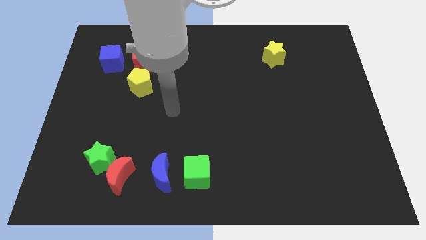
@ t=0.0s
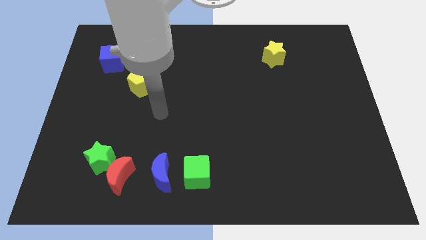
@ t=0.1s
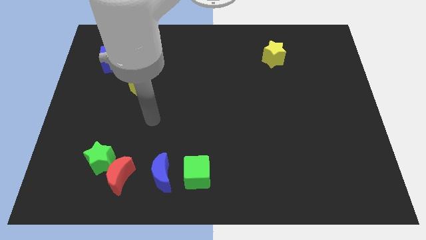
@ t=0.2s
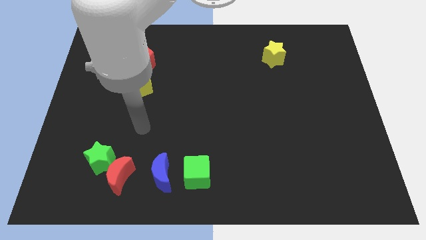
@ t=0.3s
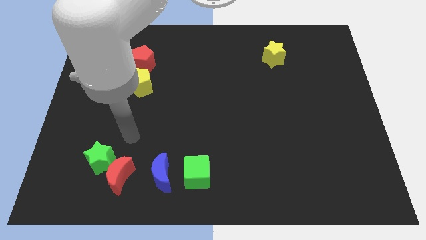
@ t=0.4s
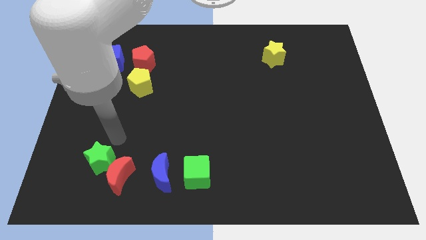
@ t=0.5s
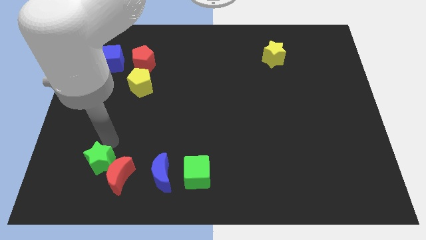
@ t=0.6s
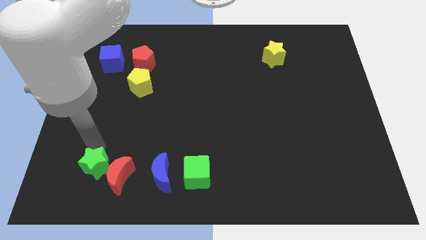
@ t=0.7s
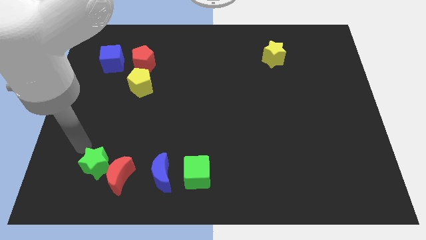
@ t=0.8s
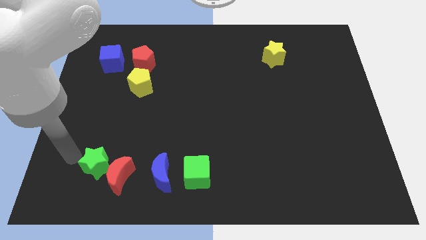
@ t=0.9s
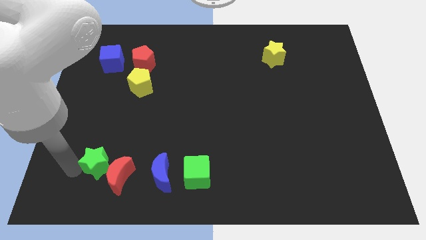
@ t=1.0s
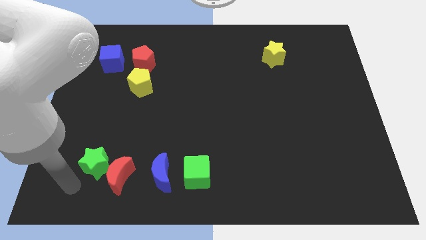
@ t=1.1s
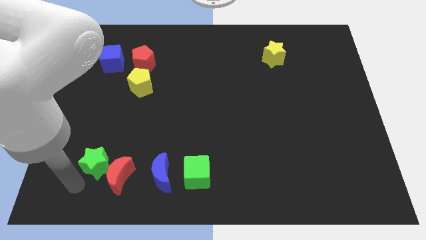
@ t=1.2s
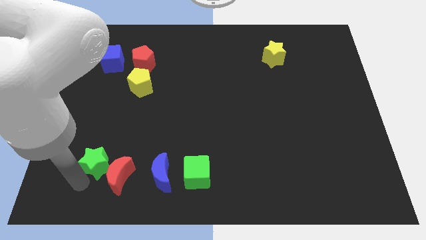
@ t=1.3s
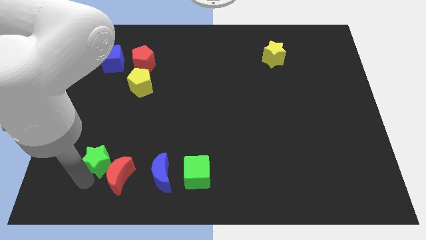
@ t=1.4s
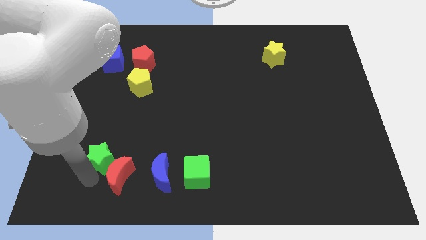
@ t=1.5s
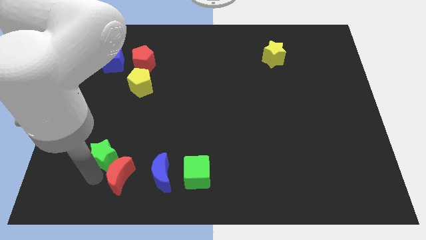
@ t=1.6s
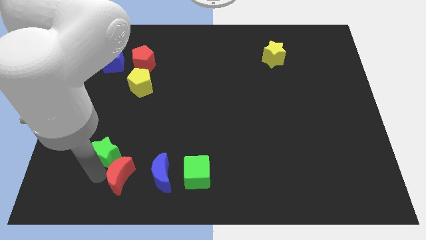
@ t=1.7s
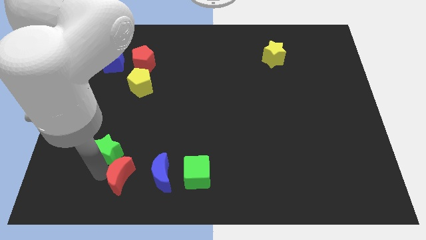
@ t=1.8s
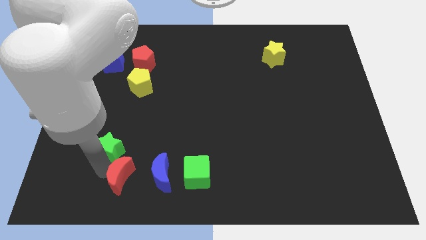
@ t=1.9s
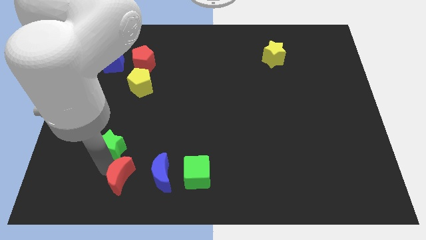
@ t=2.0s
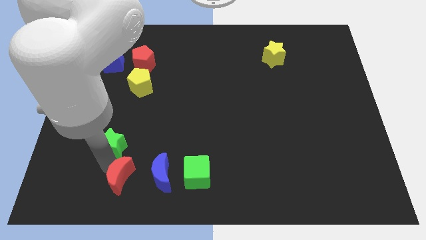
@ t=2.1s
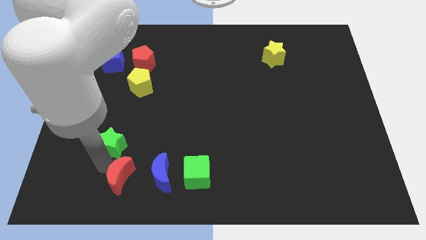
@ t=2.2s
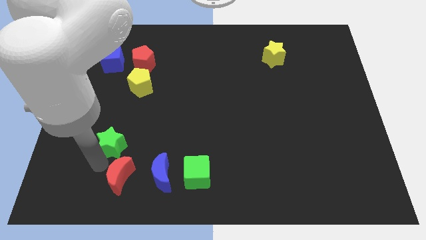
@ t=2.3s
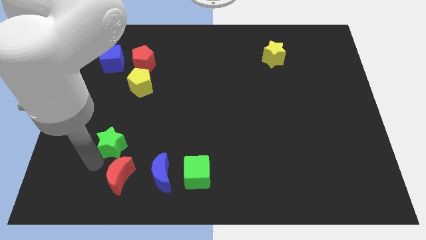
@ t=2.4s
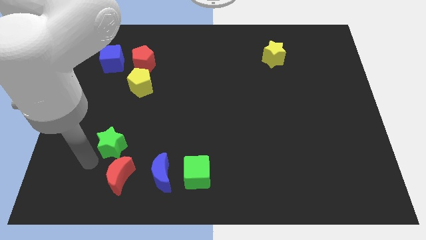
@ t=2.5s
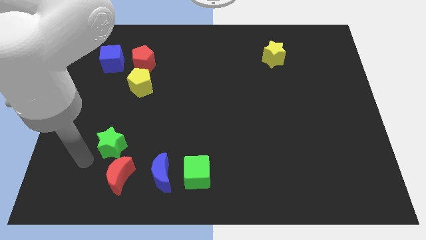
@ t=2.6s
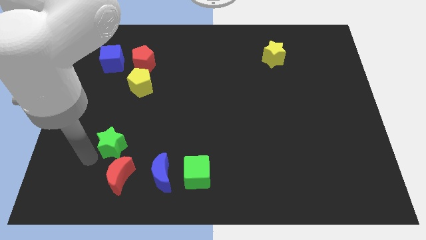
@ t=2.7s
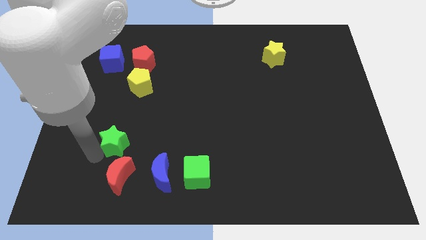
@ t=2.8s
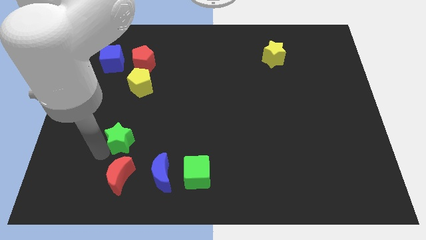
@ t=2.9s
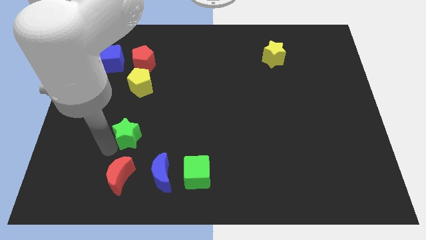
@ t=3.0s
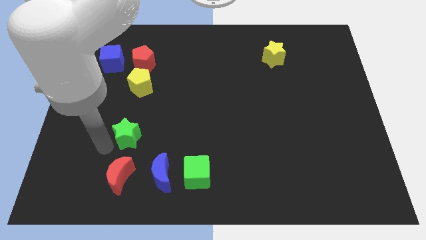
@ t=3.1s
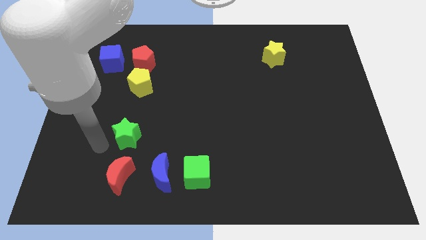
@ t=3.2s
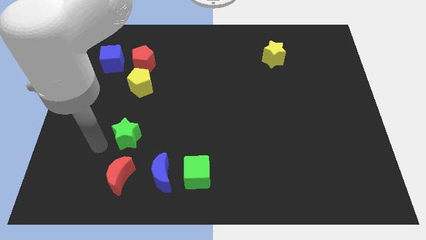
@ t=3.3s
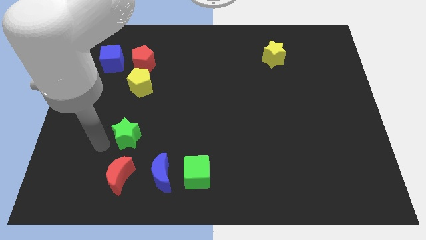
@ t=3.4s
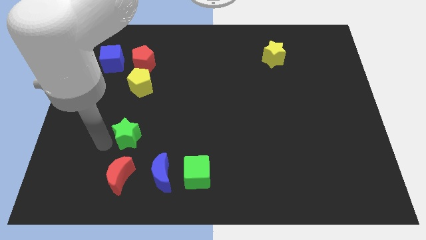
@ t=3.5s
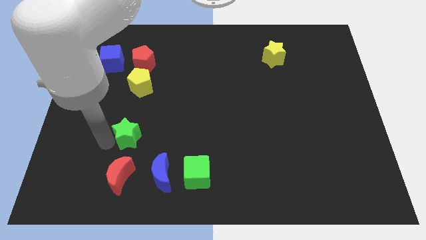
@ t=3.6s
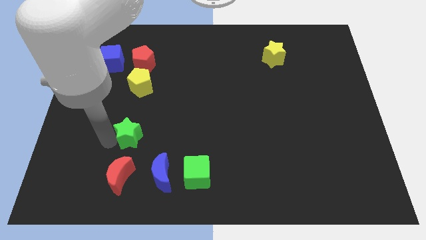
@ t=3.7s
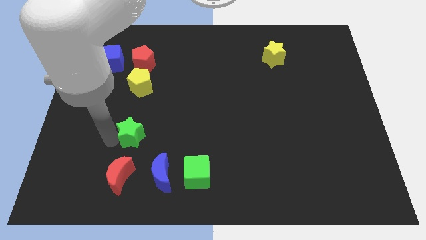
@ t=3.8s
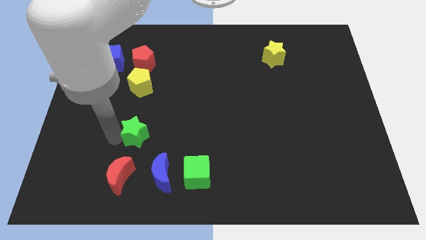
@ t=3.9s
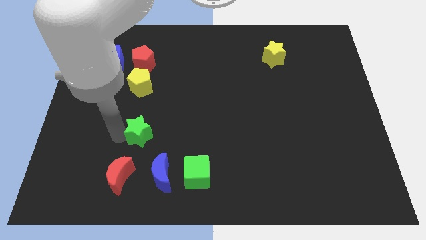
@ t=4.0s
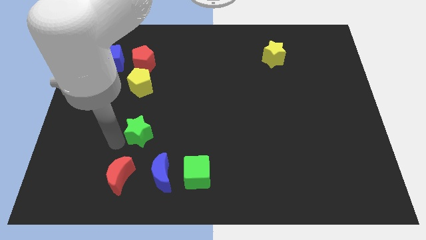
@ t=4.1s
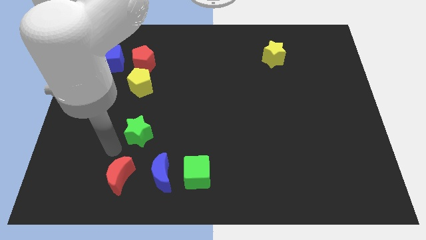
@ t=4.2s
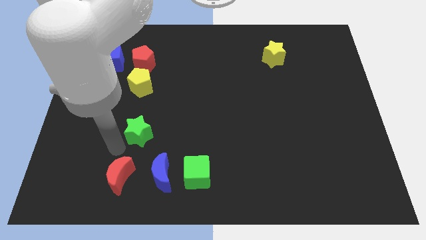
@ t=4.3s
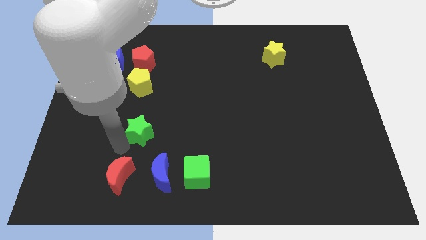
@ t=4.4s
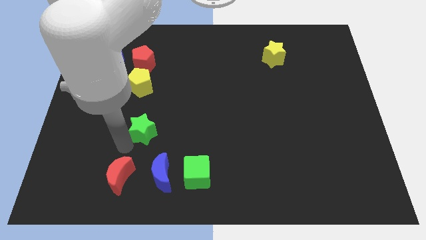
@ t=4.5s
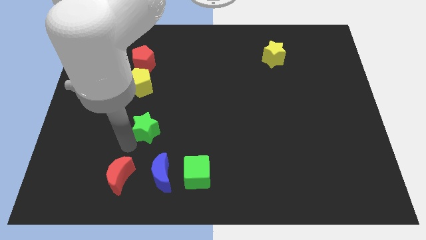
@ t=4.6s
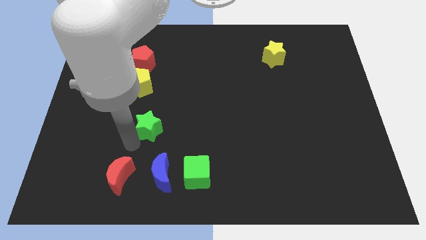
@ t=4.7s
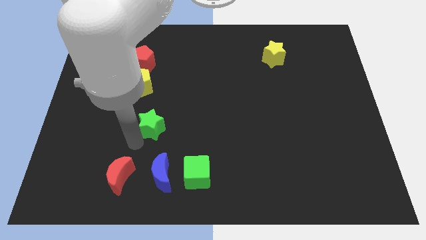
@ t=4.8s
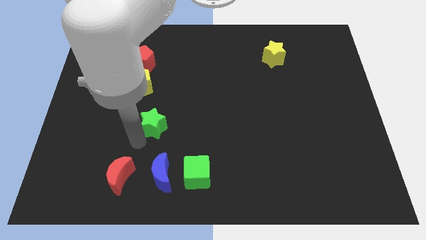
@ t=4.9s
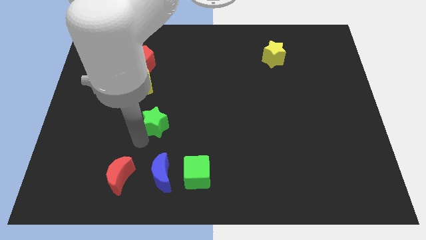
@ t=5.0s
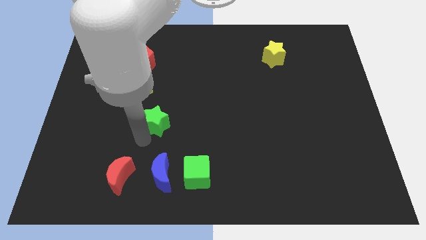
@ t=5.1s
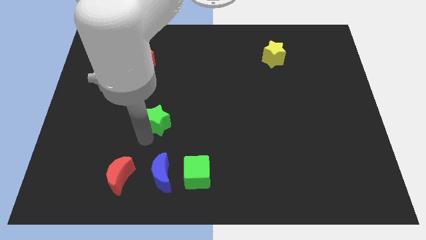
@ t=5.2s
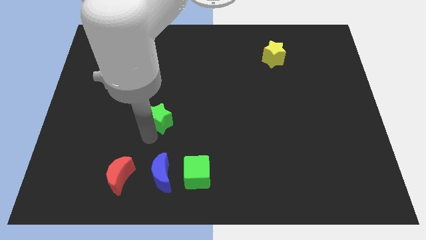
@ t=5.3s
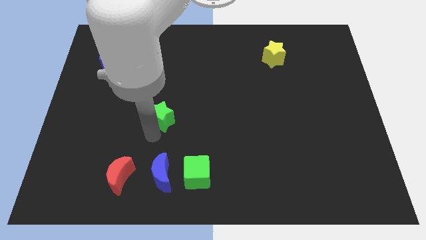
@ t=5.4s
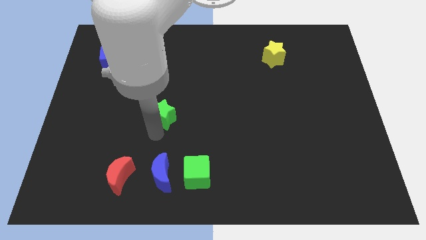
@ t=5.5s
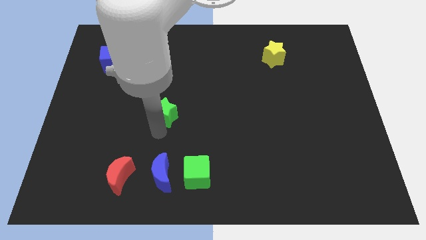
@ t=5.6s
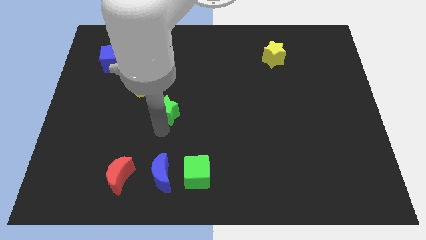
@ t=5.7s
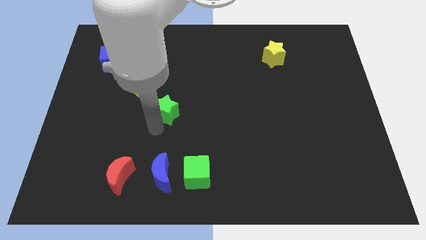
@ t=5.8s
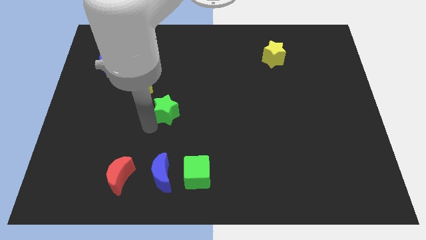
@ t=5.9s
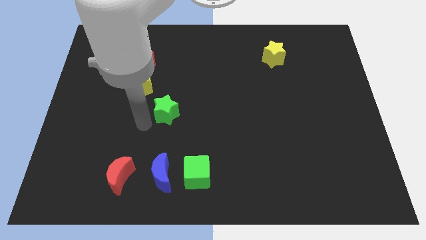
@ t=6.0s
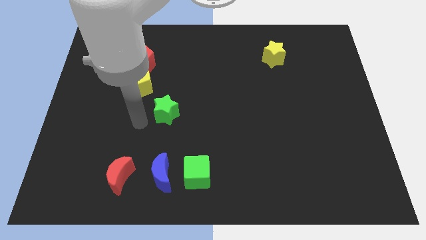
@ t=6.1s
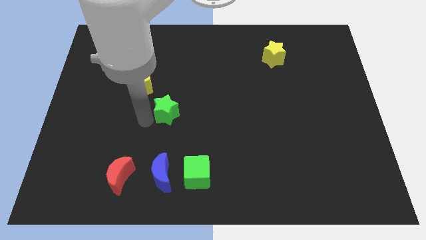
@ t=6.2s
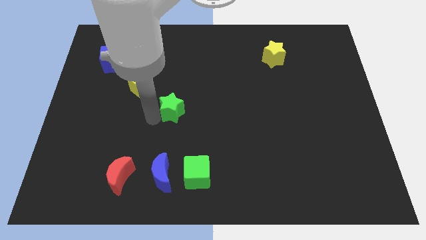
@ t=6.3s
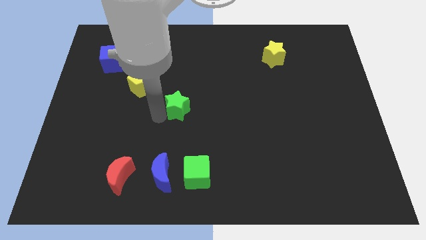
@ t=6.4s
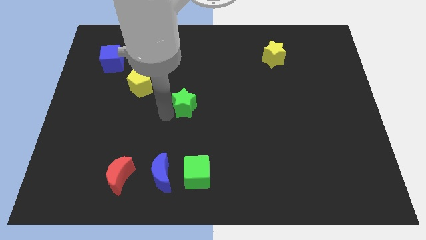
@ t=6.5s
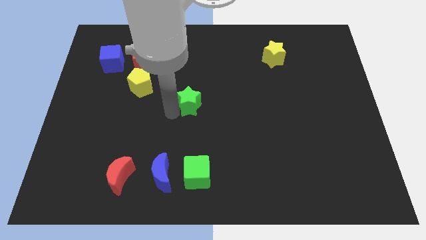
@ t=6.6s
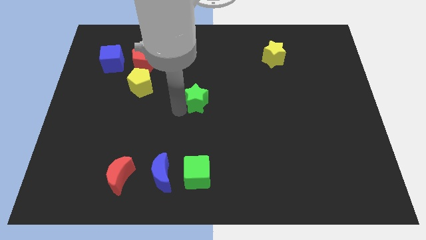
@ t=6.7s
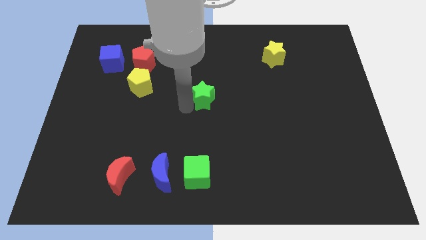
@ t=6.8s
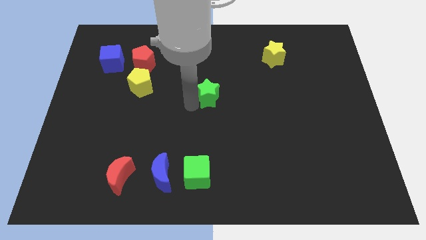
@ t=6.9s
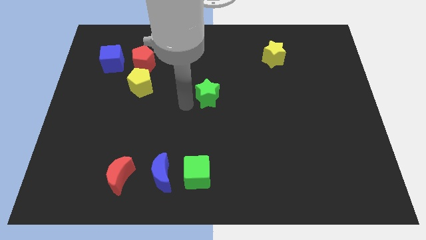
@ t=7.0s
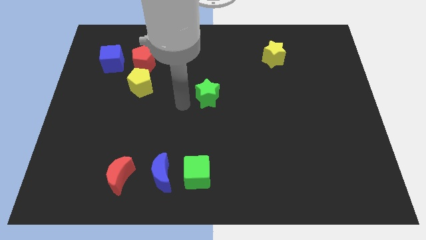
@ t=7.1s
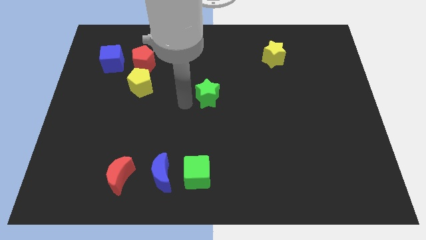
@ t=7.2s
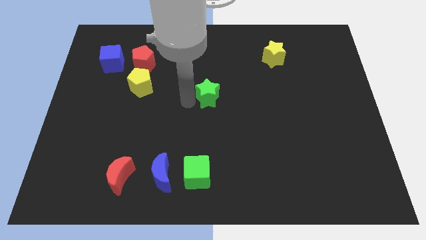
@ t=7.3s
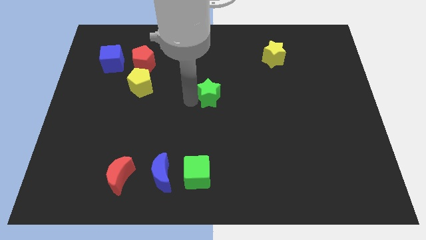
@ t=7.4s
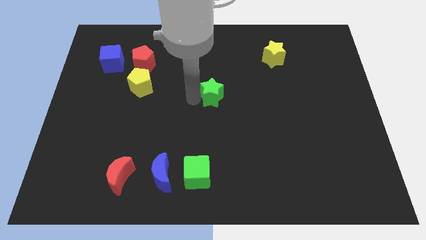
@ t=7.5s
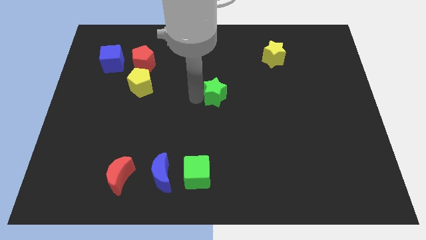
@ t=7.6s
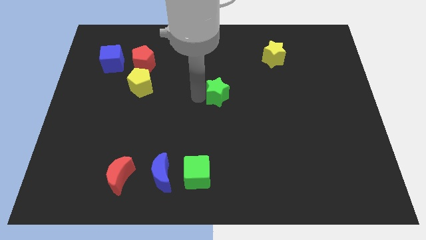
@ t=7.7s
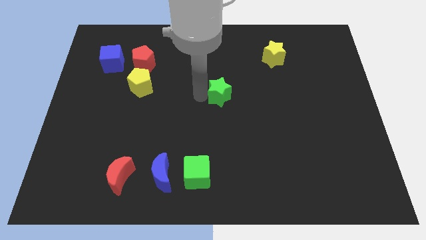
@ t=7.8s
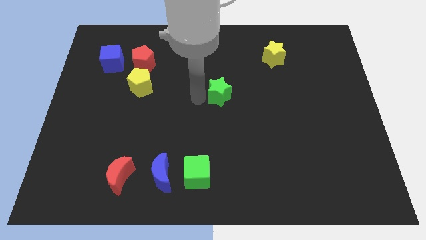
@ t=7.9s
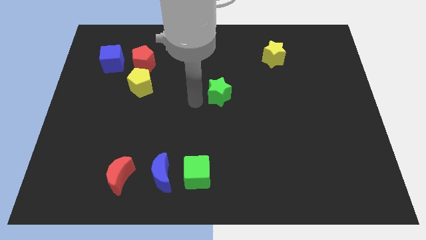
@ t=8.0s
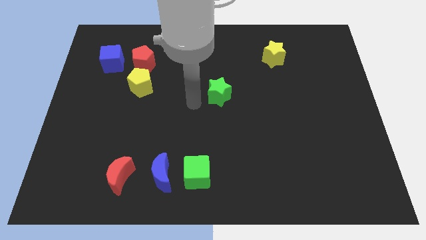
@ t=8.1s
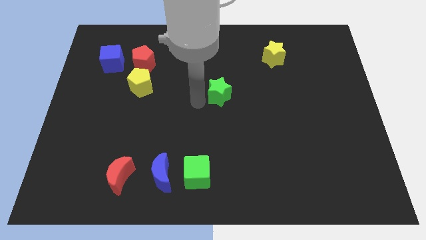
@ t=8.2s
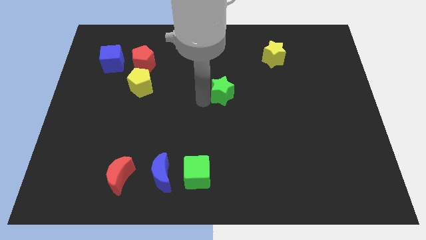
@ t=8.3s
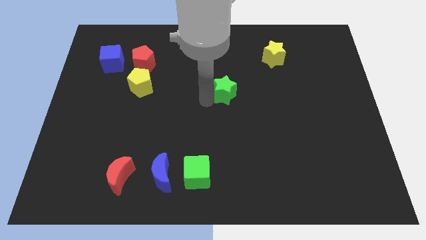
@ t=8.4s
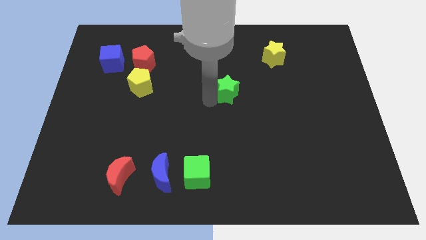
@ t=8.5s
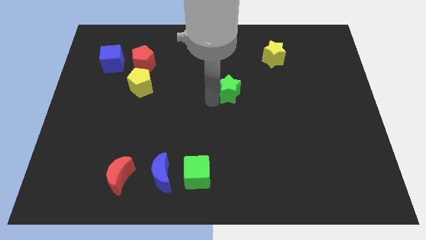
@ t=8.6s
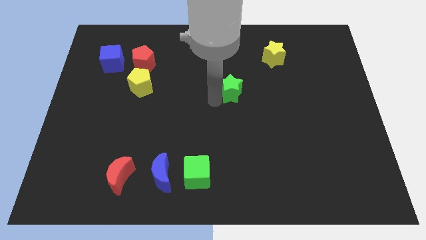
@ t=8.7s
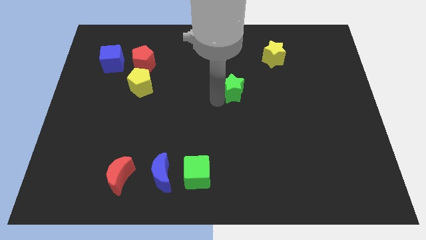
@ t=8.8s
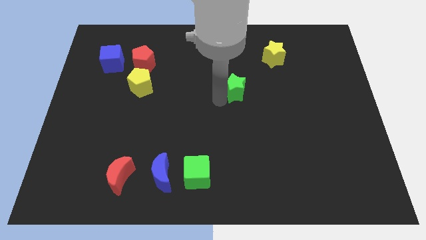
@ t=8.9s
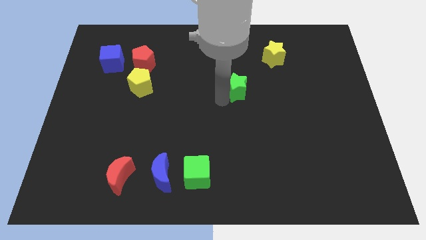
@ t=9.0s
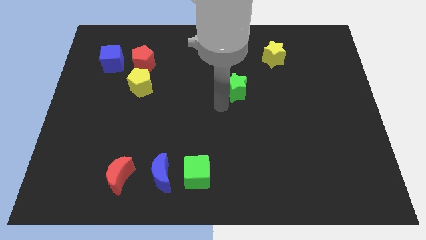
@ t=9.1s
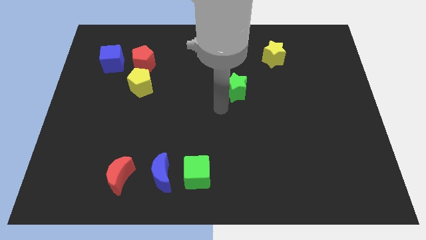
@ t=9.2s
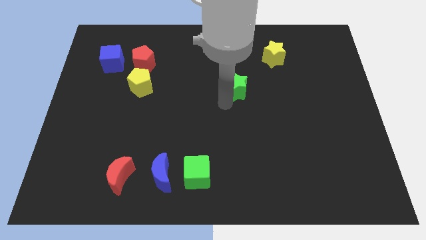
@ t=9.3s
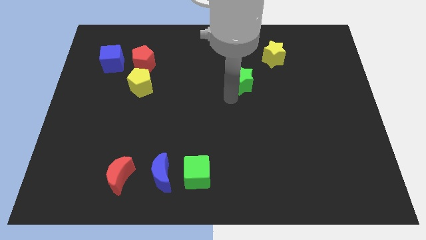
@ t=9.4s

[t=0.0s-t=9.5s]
move the green star to the bottom left side of the yellow star
